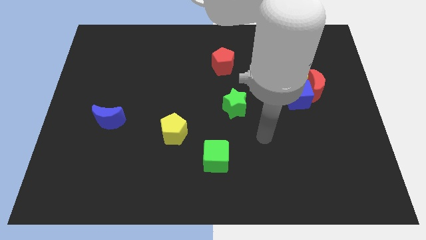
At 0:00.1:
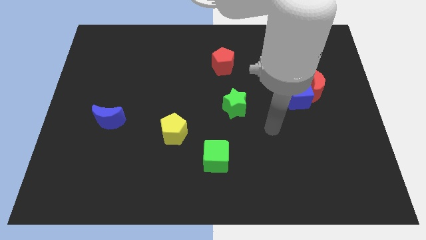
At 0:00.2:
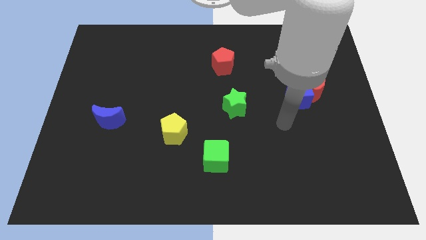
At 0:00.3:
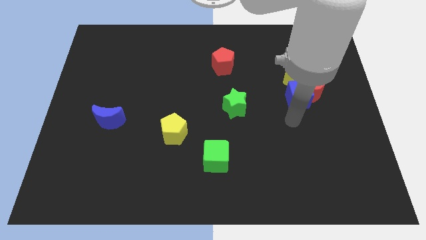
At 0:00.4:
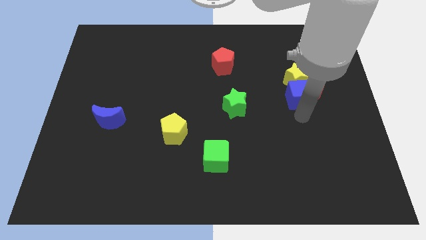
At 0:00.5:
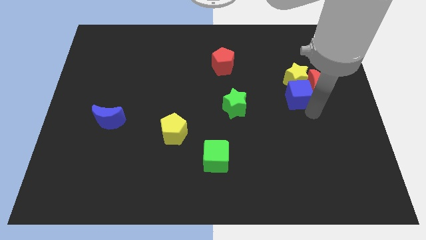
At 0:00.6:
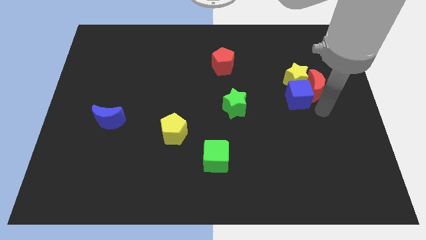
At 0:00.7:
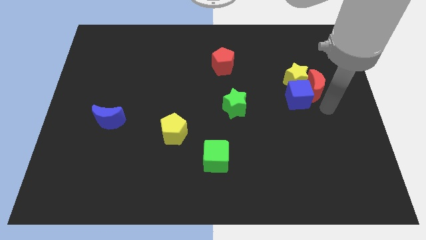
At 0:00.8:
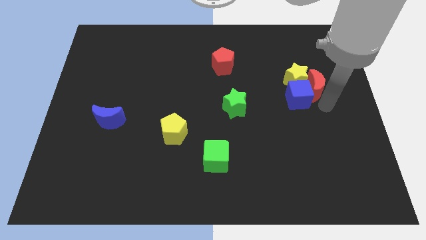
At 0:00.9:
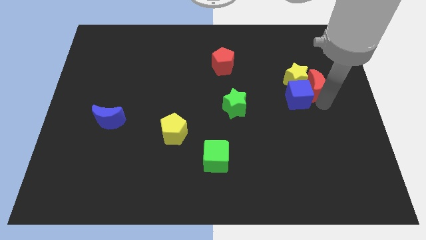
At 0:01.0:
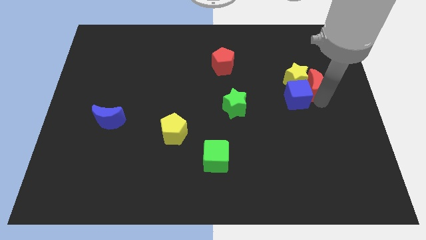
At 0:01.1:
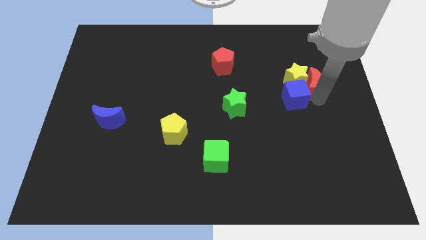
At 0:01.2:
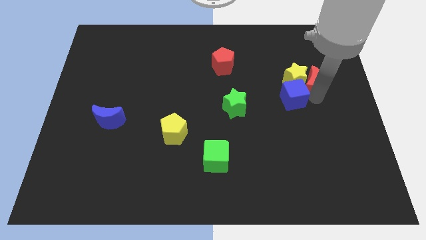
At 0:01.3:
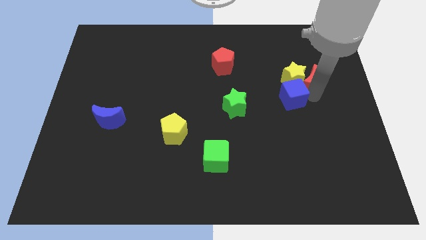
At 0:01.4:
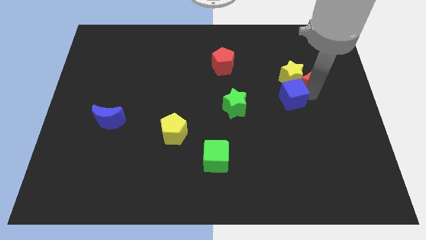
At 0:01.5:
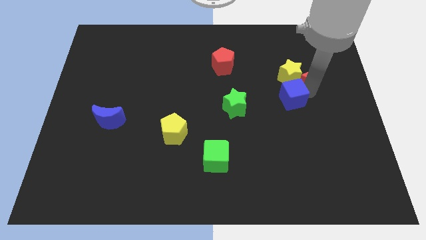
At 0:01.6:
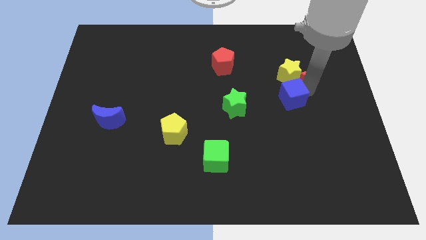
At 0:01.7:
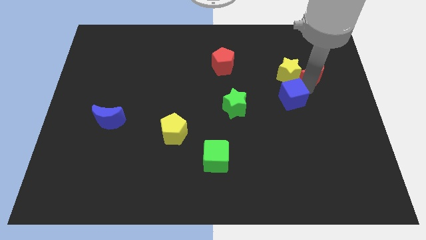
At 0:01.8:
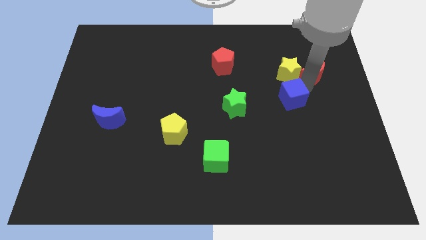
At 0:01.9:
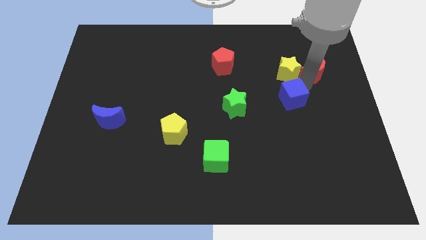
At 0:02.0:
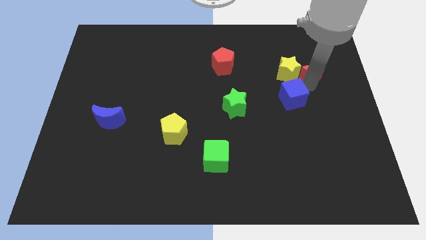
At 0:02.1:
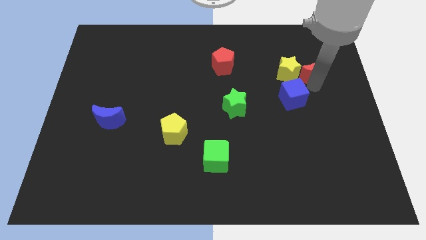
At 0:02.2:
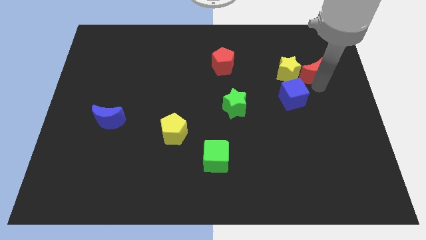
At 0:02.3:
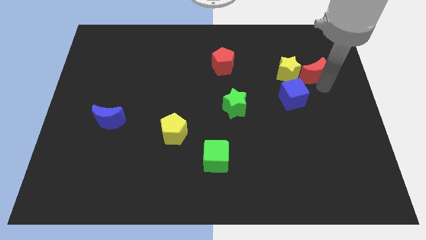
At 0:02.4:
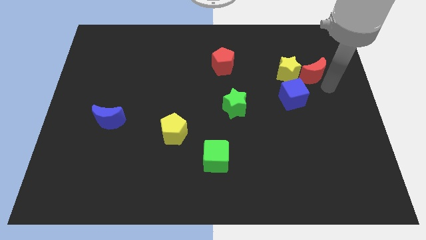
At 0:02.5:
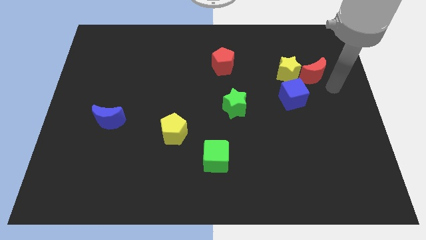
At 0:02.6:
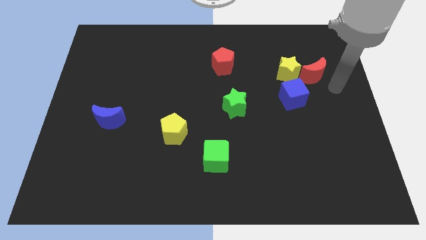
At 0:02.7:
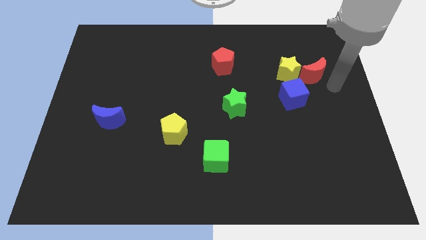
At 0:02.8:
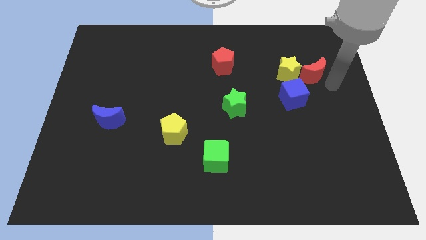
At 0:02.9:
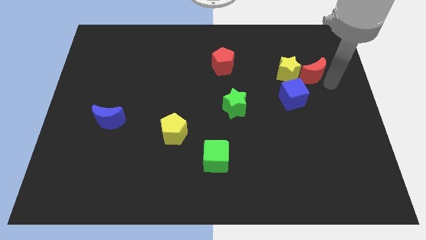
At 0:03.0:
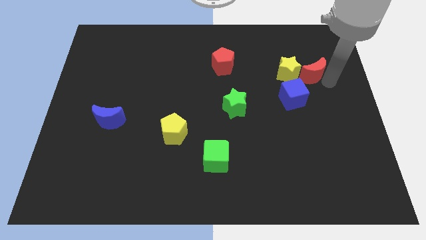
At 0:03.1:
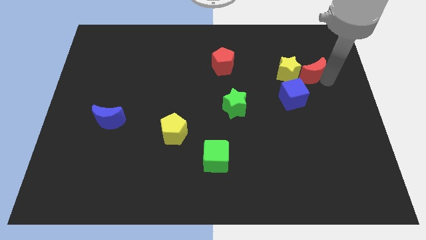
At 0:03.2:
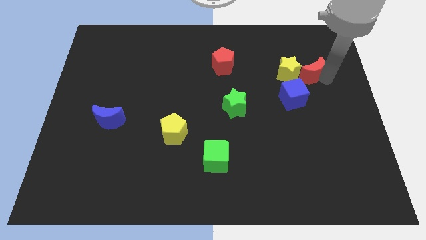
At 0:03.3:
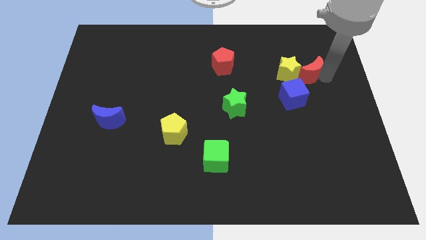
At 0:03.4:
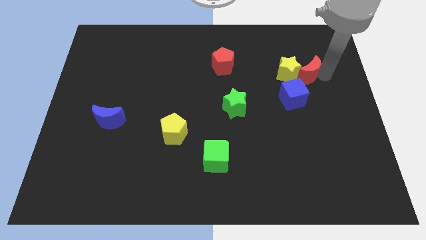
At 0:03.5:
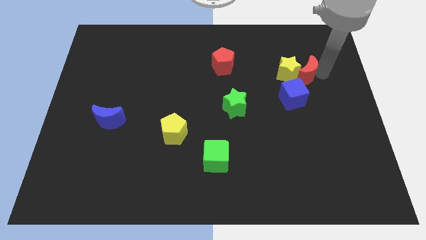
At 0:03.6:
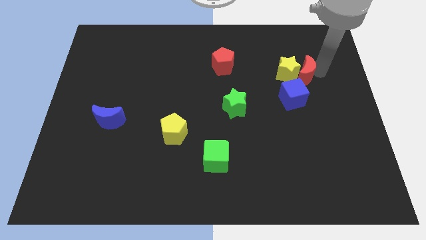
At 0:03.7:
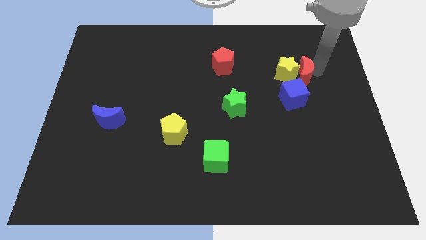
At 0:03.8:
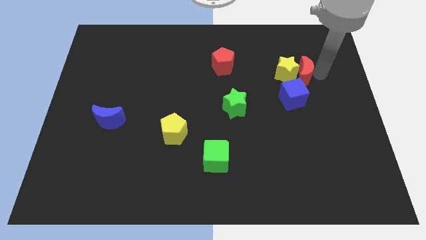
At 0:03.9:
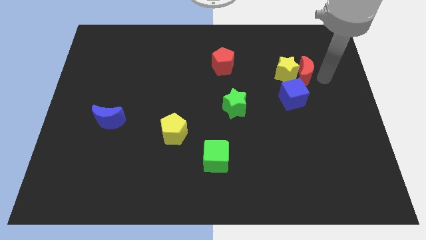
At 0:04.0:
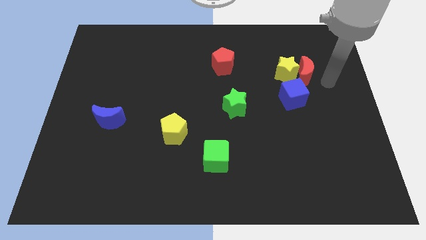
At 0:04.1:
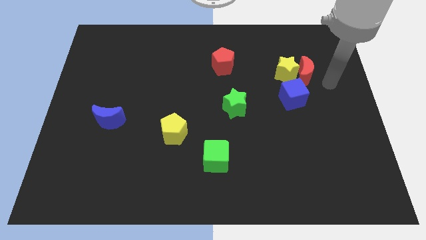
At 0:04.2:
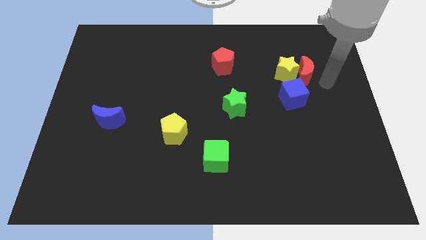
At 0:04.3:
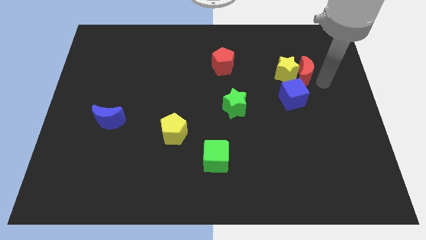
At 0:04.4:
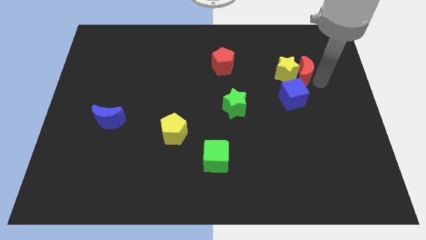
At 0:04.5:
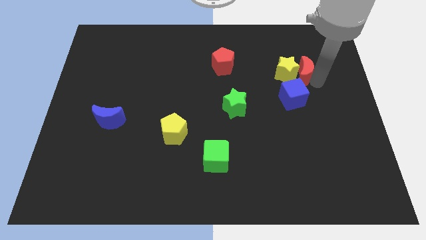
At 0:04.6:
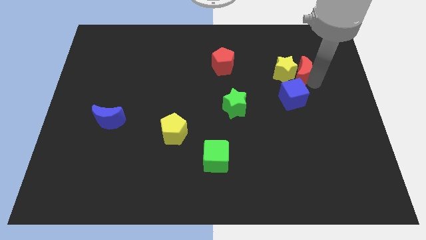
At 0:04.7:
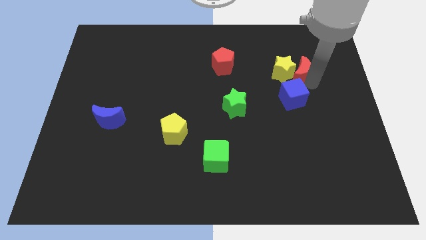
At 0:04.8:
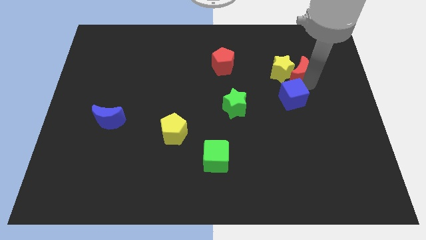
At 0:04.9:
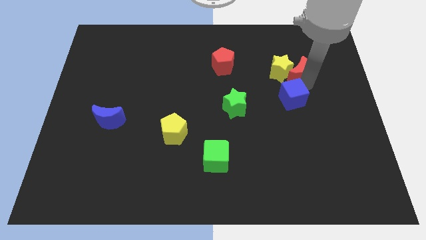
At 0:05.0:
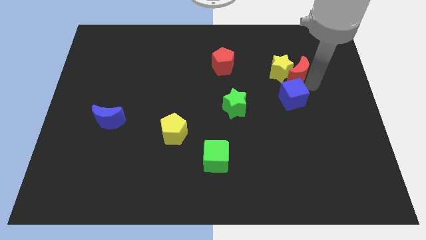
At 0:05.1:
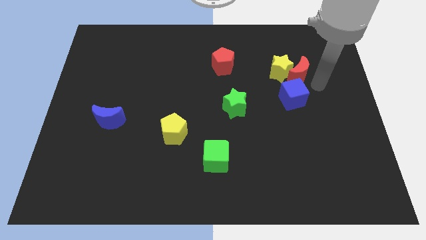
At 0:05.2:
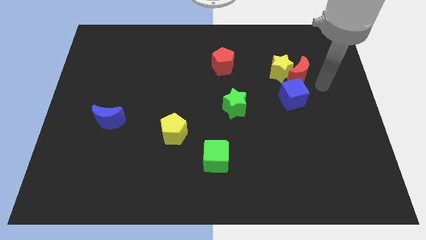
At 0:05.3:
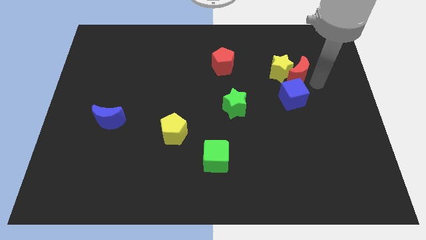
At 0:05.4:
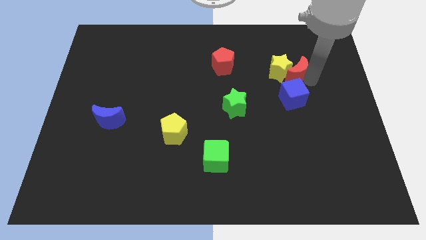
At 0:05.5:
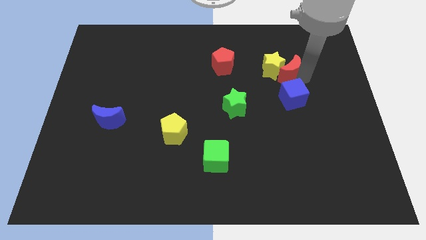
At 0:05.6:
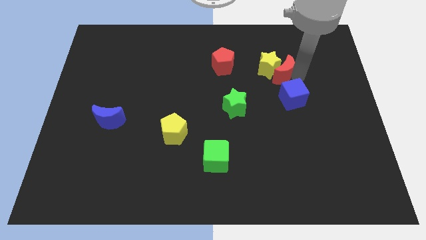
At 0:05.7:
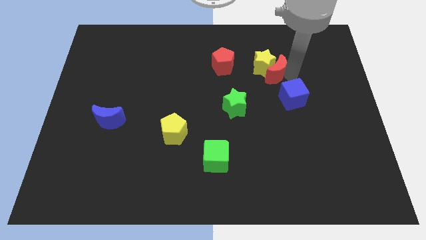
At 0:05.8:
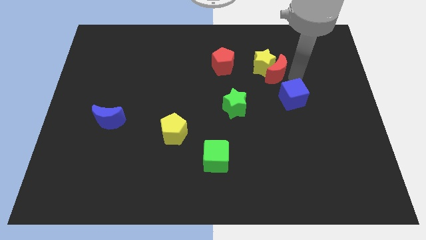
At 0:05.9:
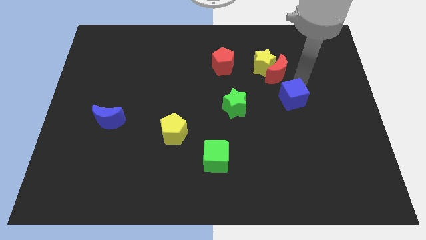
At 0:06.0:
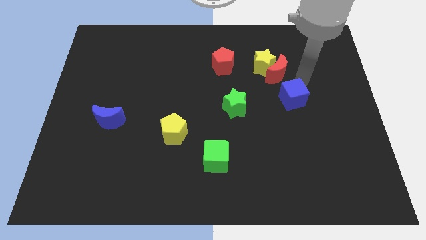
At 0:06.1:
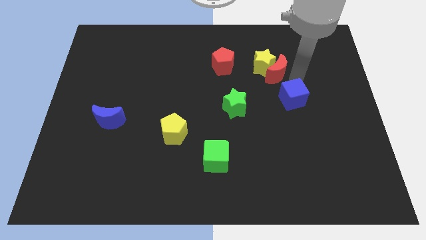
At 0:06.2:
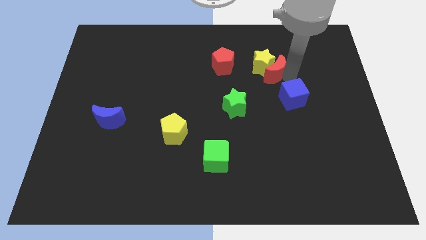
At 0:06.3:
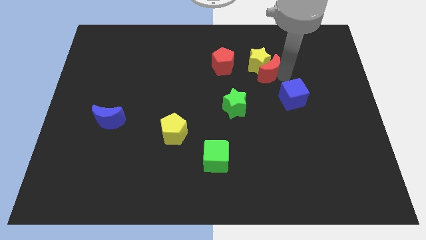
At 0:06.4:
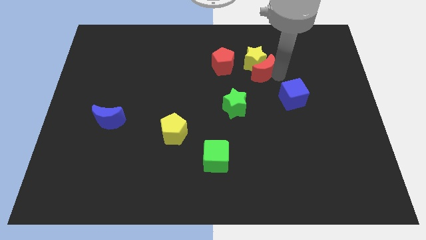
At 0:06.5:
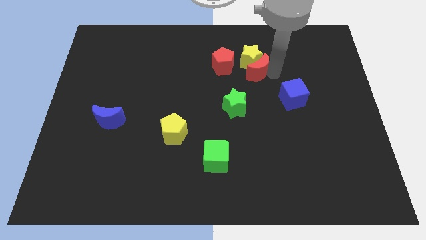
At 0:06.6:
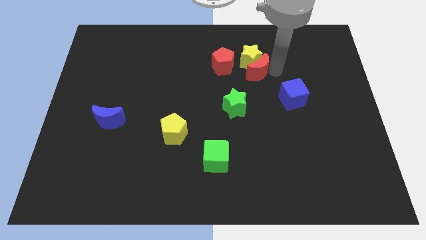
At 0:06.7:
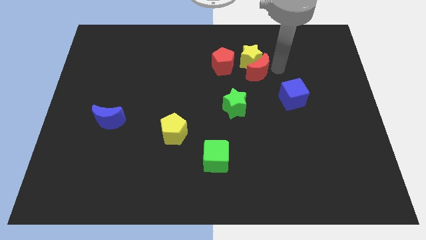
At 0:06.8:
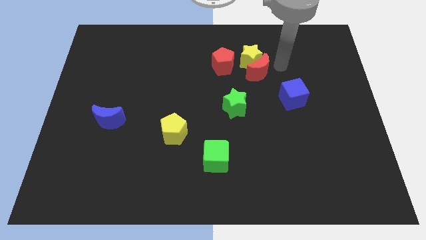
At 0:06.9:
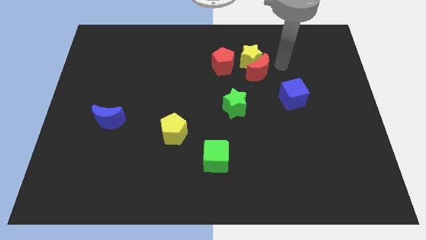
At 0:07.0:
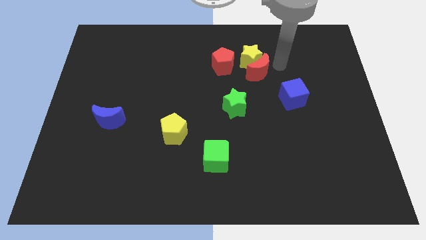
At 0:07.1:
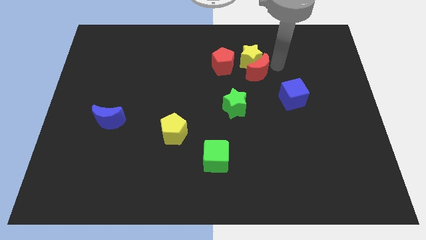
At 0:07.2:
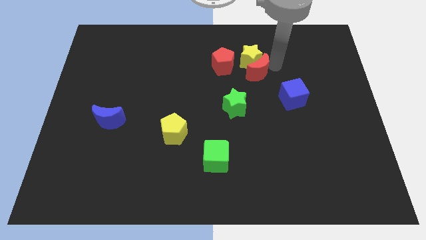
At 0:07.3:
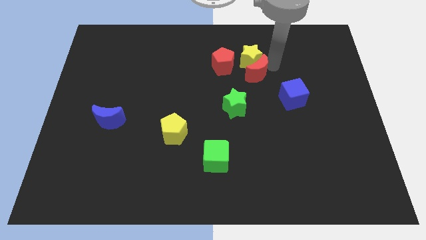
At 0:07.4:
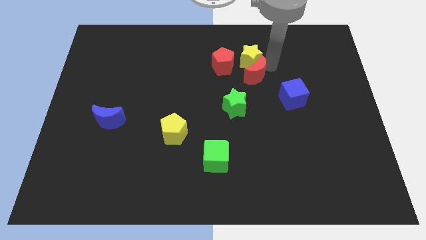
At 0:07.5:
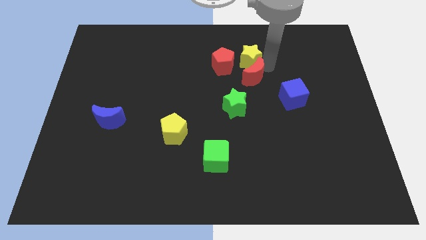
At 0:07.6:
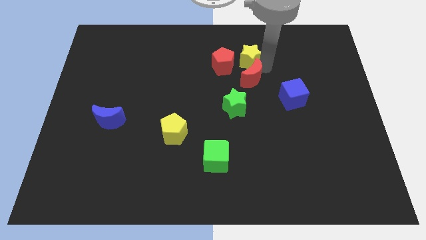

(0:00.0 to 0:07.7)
slide the red moon to the middle
